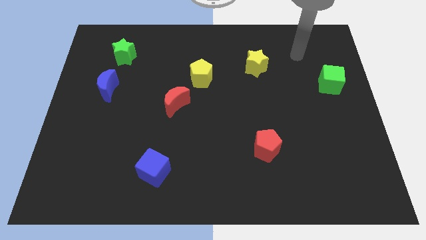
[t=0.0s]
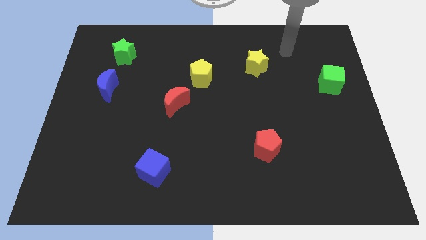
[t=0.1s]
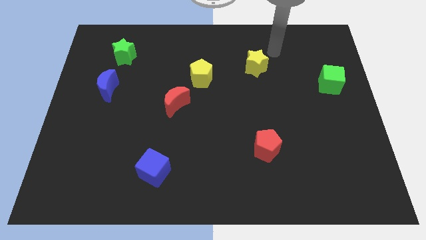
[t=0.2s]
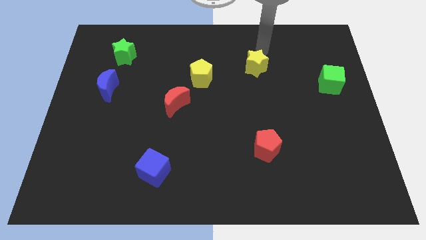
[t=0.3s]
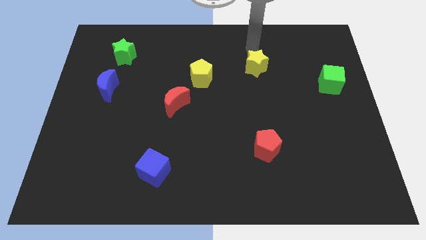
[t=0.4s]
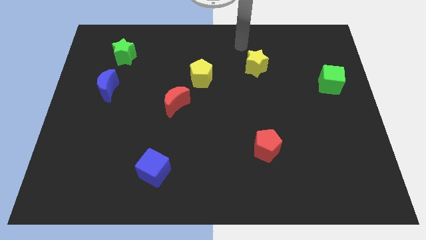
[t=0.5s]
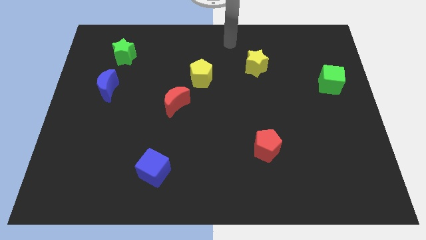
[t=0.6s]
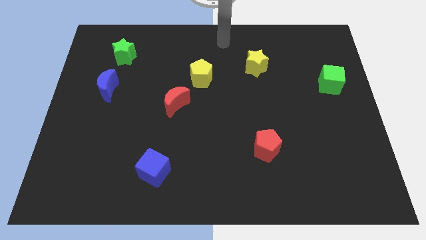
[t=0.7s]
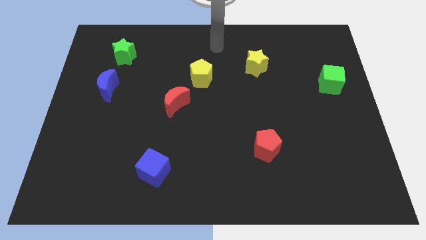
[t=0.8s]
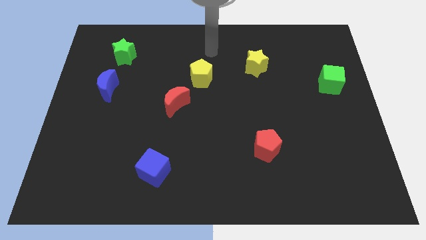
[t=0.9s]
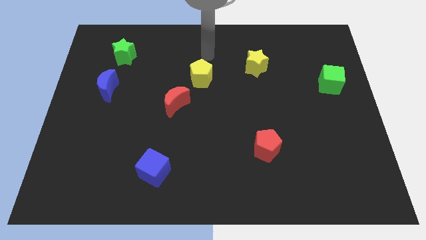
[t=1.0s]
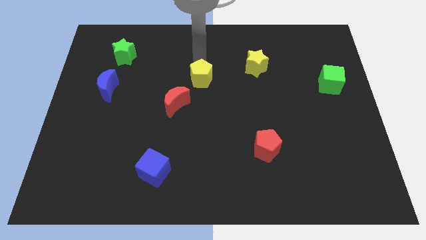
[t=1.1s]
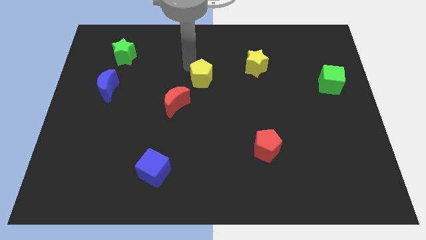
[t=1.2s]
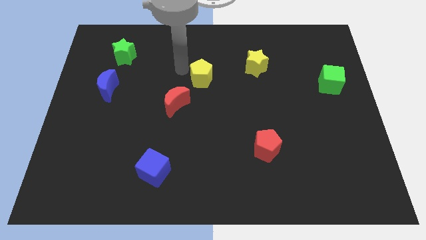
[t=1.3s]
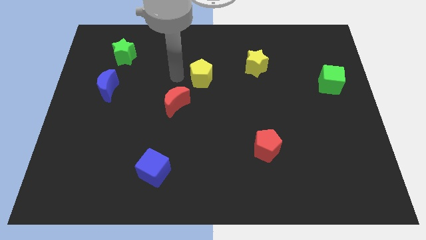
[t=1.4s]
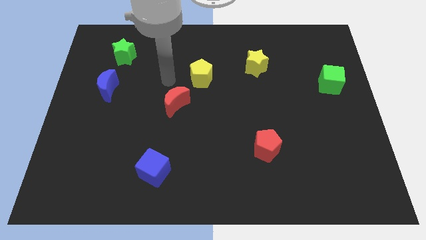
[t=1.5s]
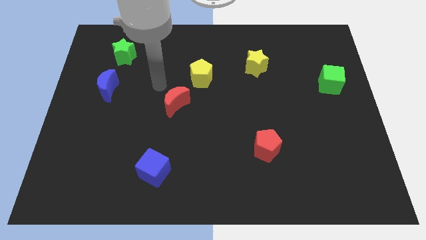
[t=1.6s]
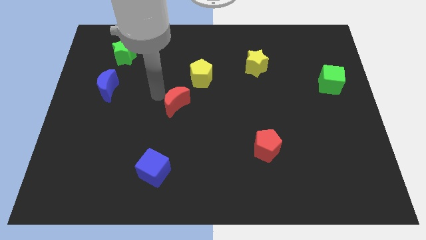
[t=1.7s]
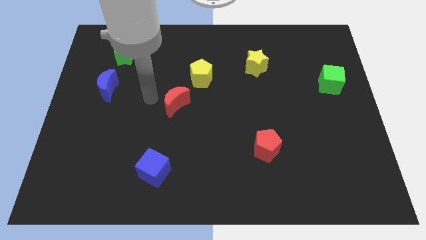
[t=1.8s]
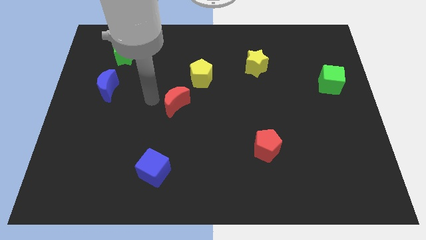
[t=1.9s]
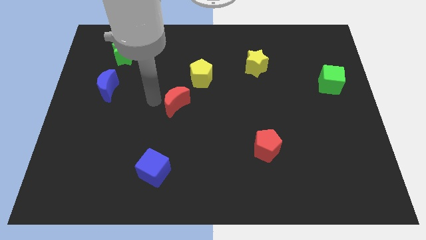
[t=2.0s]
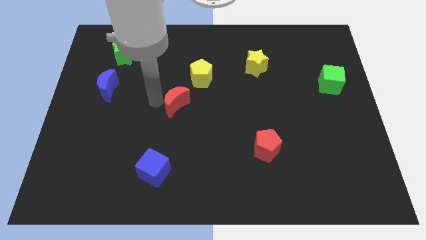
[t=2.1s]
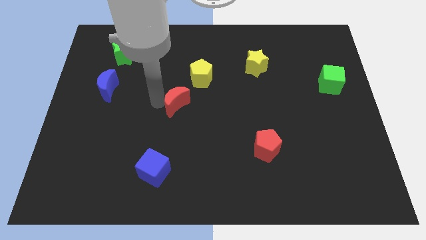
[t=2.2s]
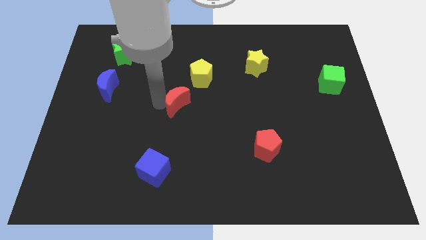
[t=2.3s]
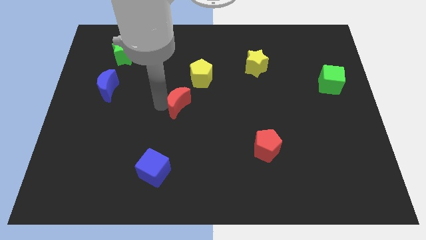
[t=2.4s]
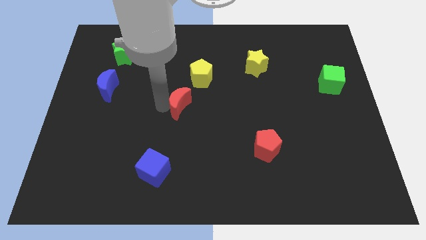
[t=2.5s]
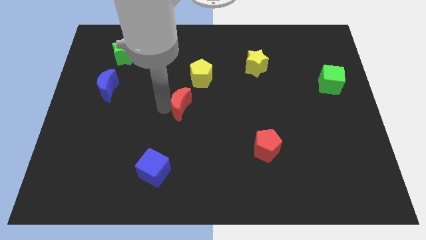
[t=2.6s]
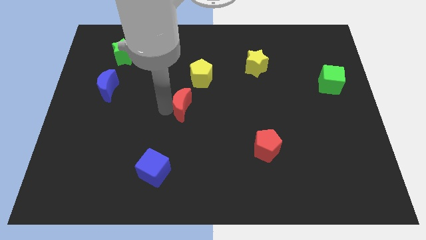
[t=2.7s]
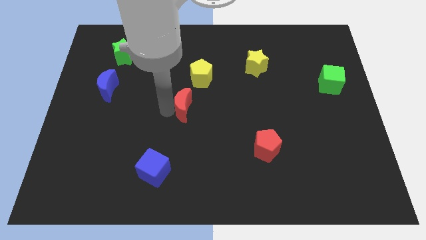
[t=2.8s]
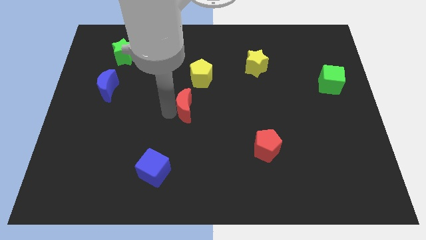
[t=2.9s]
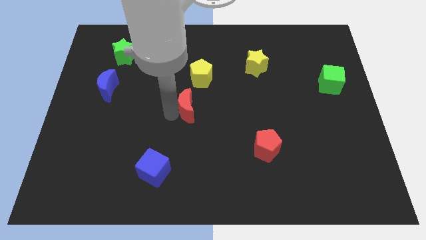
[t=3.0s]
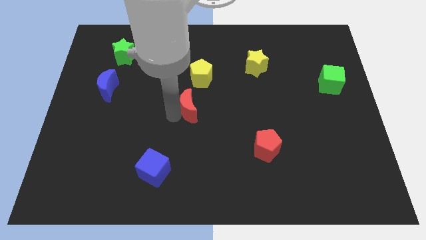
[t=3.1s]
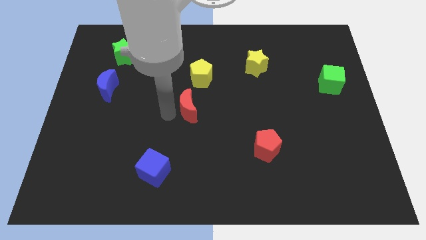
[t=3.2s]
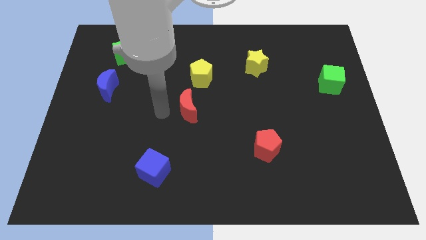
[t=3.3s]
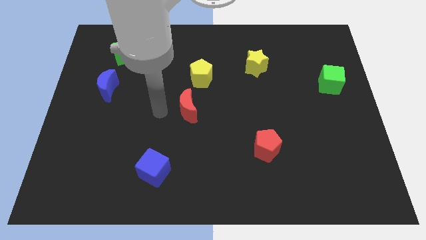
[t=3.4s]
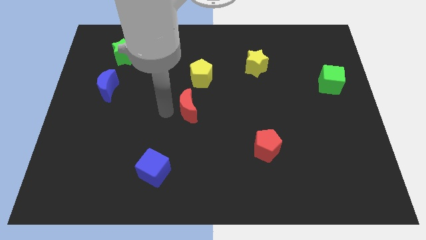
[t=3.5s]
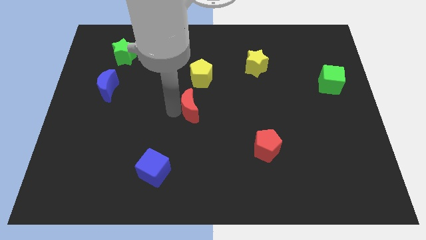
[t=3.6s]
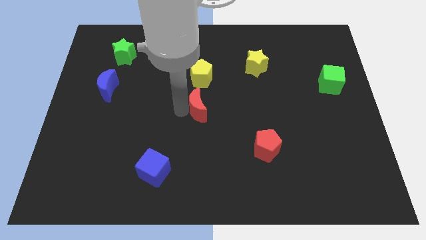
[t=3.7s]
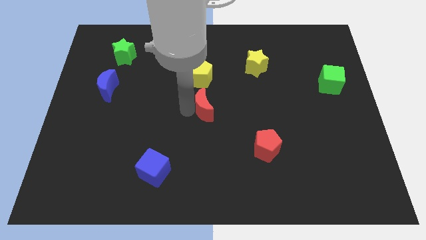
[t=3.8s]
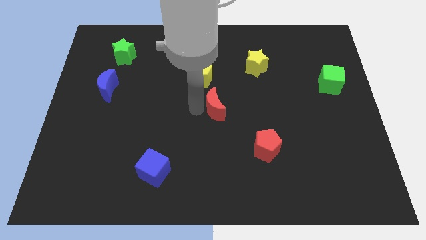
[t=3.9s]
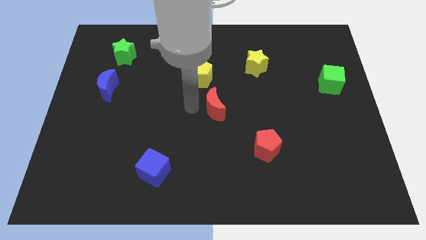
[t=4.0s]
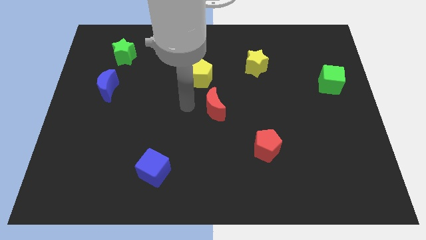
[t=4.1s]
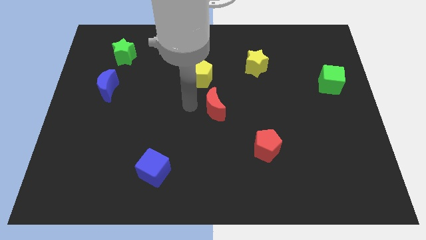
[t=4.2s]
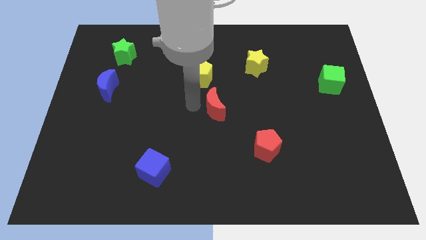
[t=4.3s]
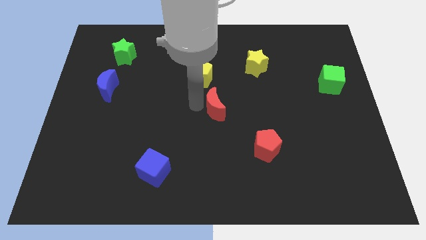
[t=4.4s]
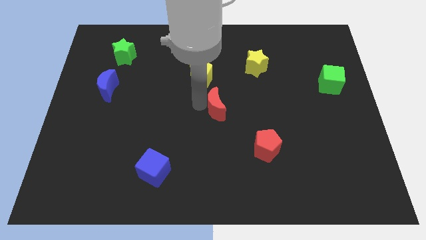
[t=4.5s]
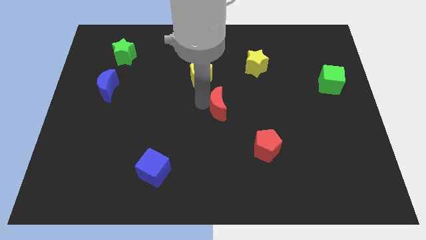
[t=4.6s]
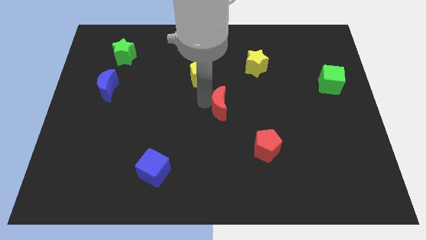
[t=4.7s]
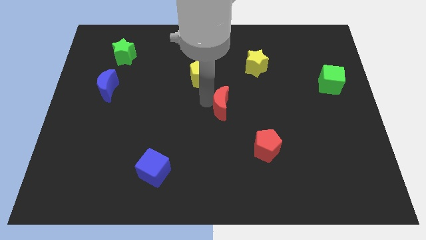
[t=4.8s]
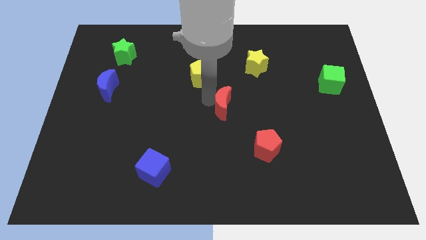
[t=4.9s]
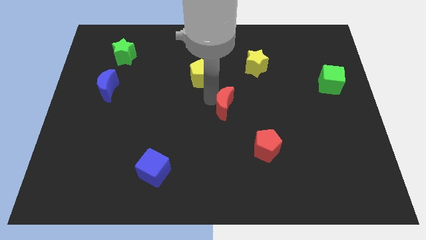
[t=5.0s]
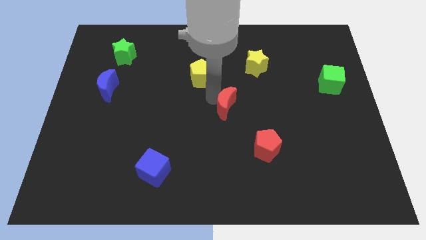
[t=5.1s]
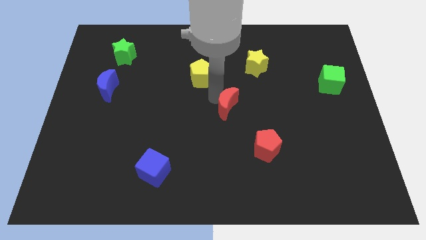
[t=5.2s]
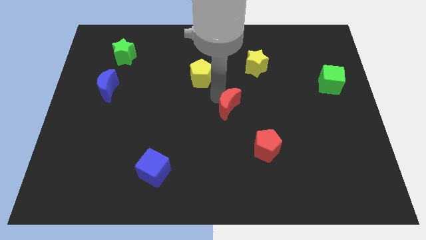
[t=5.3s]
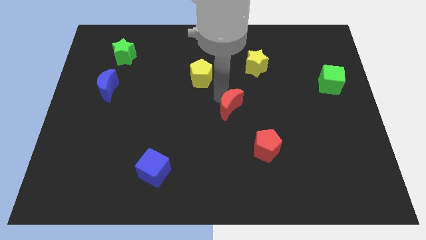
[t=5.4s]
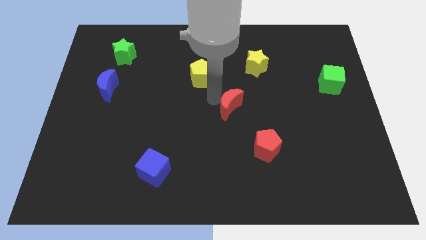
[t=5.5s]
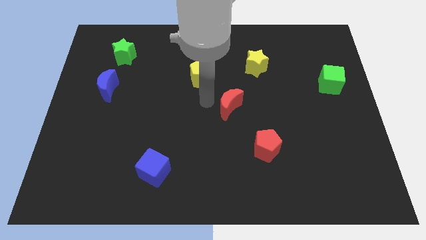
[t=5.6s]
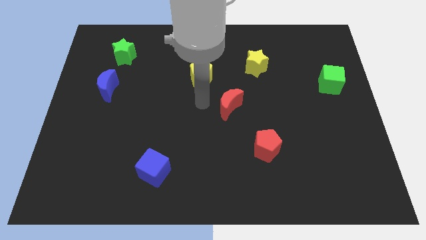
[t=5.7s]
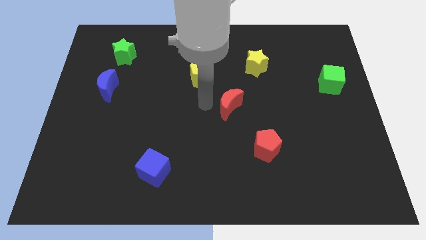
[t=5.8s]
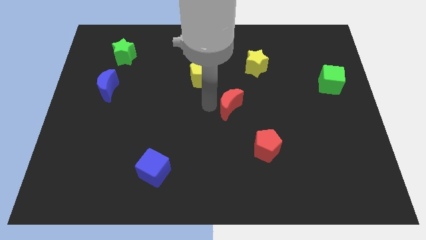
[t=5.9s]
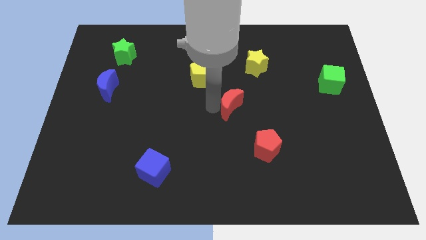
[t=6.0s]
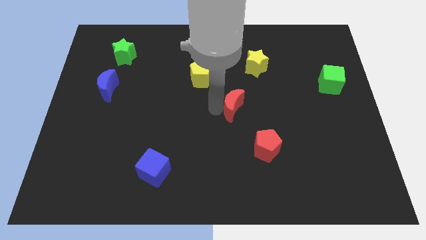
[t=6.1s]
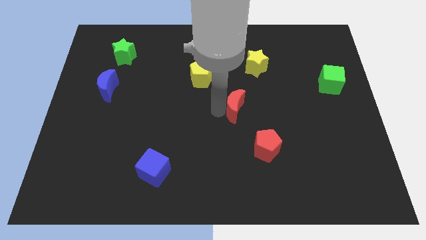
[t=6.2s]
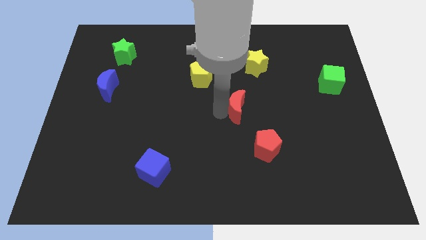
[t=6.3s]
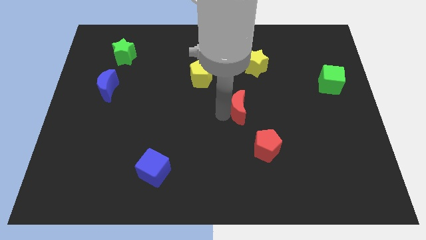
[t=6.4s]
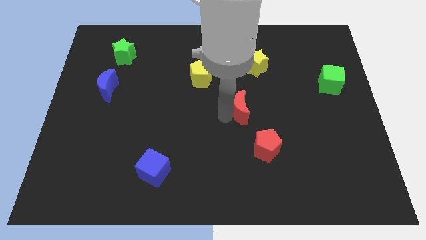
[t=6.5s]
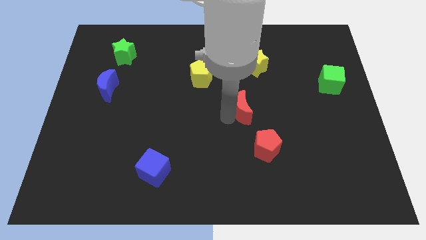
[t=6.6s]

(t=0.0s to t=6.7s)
move the red moon above the red pentagon
